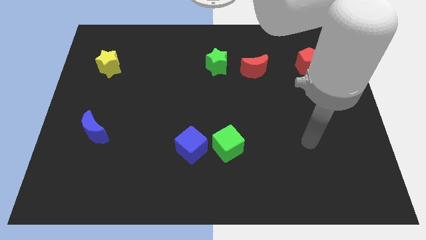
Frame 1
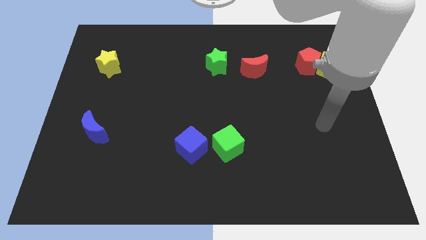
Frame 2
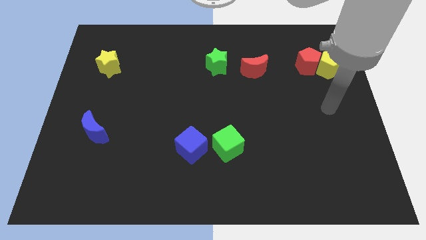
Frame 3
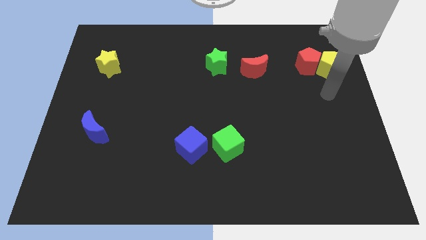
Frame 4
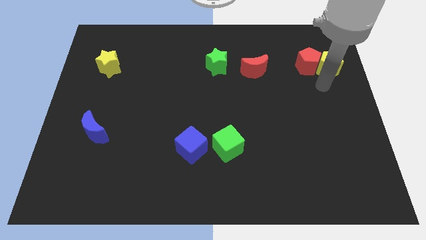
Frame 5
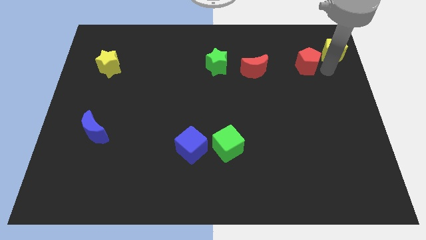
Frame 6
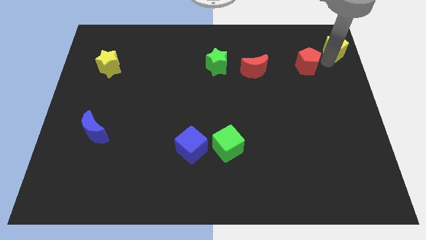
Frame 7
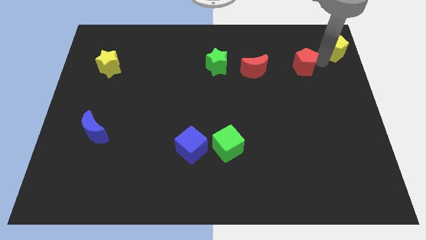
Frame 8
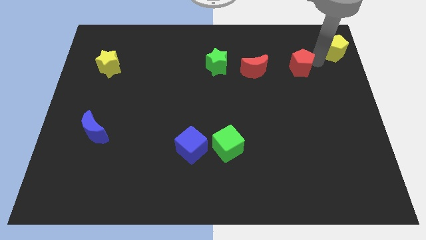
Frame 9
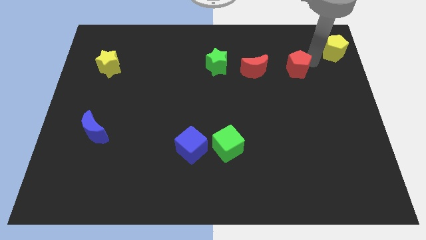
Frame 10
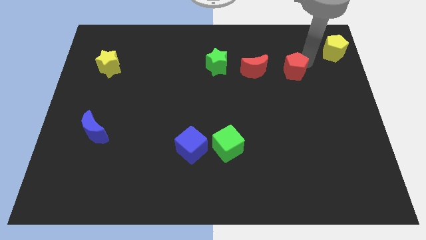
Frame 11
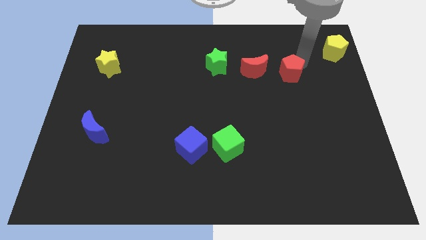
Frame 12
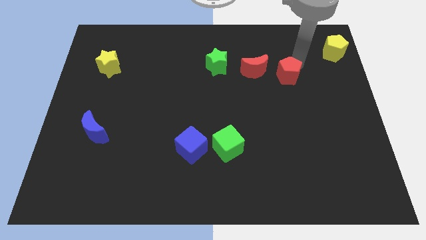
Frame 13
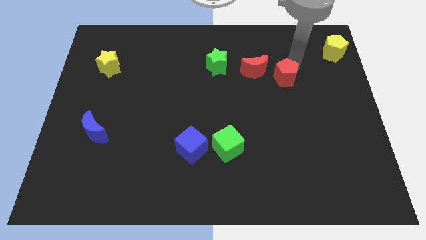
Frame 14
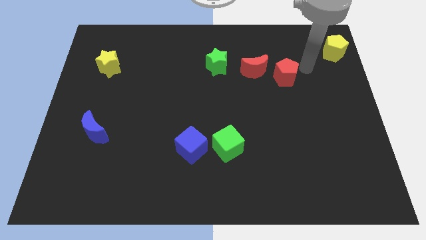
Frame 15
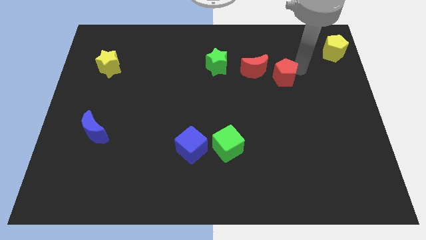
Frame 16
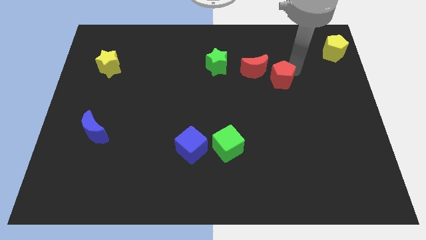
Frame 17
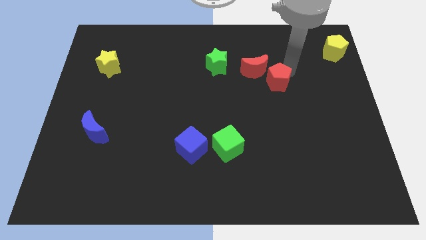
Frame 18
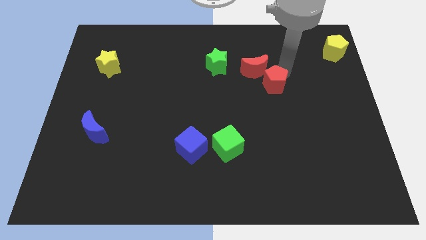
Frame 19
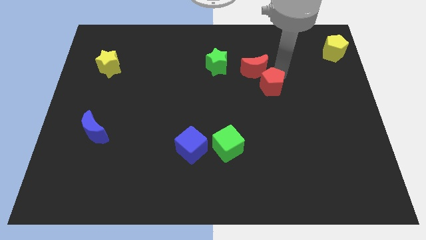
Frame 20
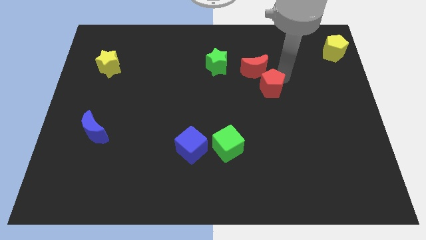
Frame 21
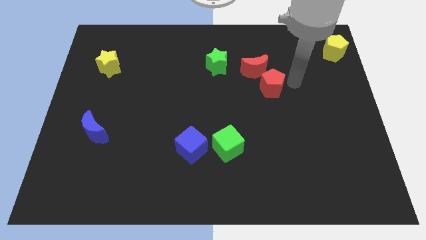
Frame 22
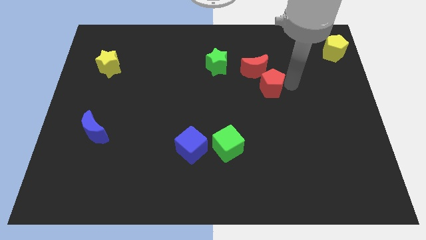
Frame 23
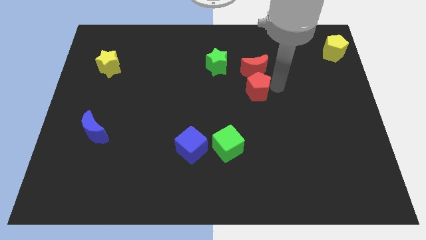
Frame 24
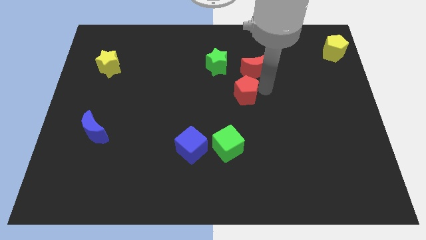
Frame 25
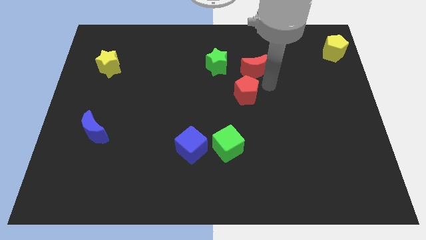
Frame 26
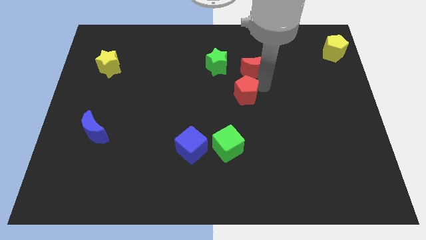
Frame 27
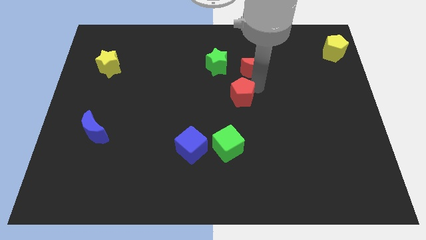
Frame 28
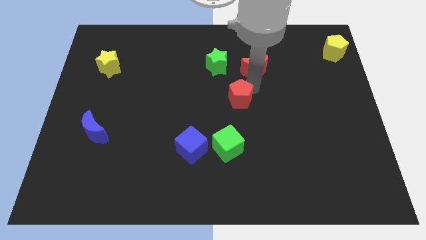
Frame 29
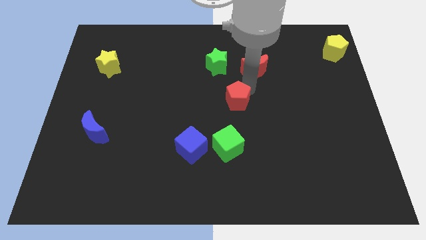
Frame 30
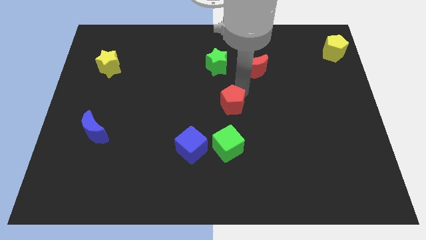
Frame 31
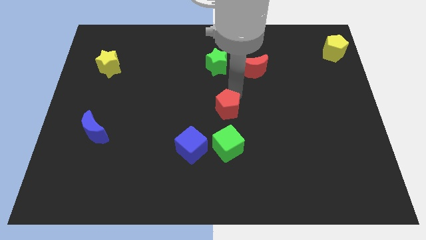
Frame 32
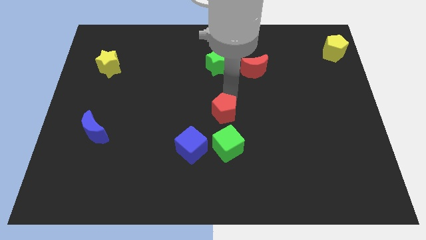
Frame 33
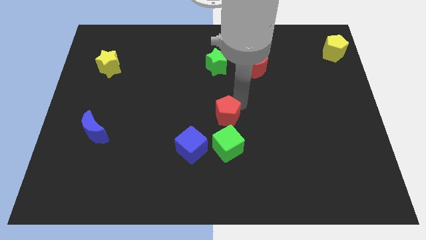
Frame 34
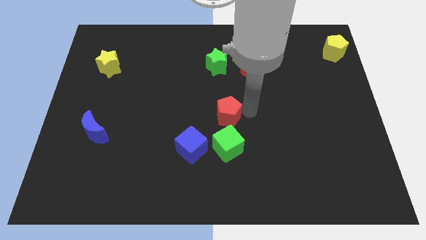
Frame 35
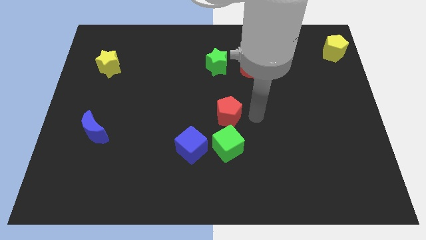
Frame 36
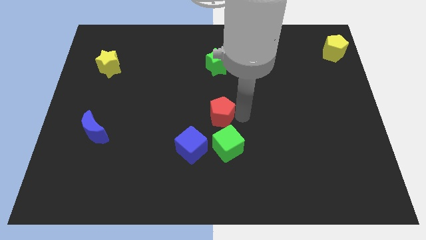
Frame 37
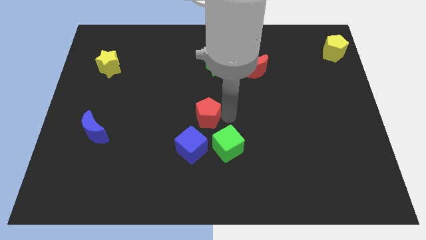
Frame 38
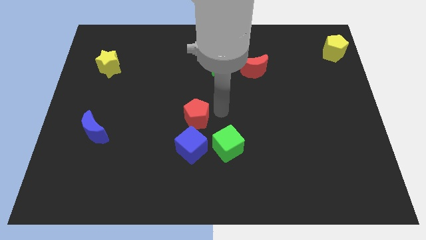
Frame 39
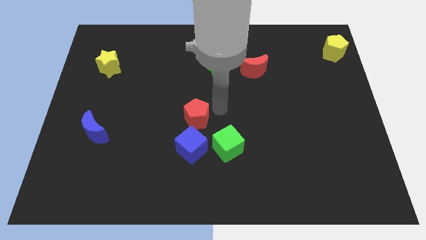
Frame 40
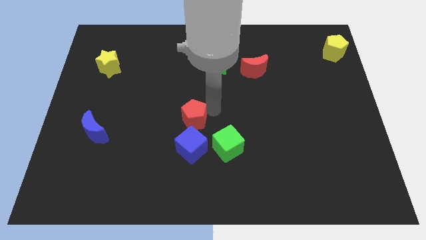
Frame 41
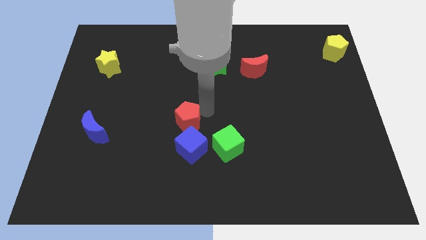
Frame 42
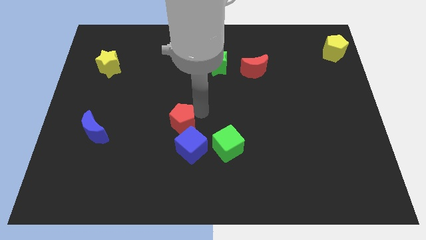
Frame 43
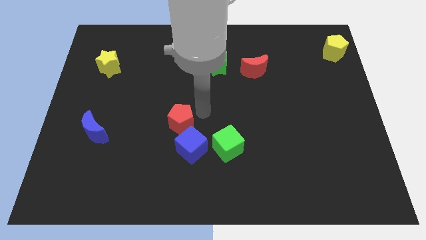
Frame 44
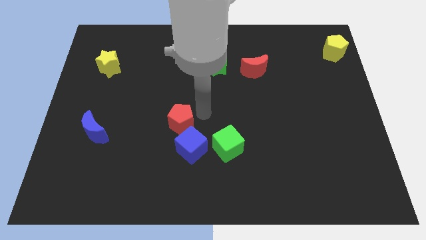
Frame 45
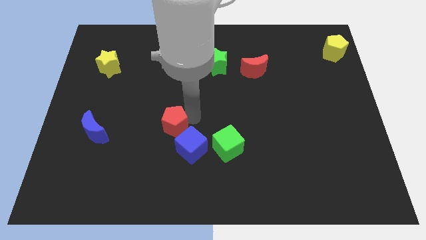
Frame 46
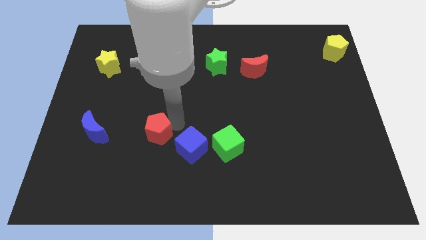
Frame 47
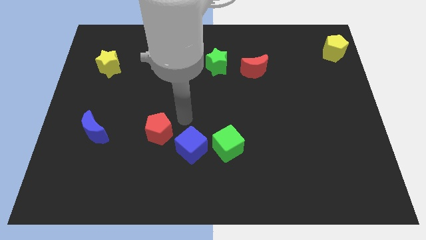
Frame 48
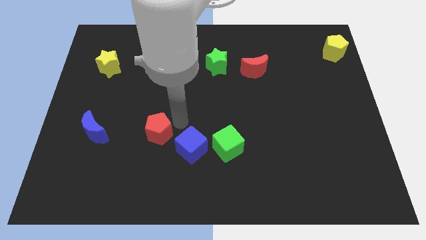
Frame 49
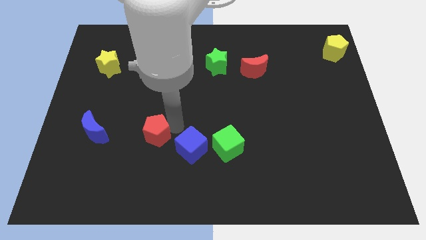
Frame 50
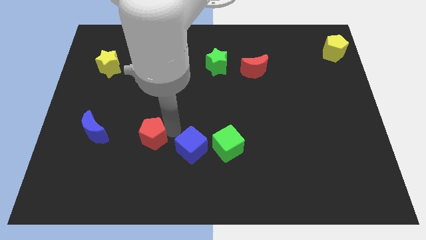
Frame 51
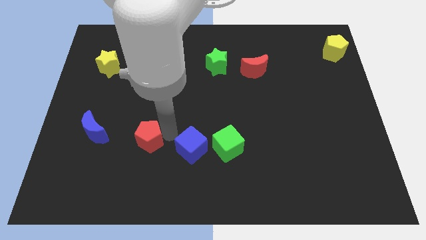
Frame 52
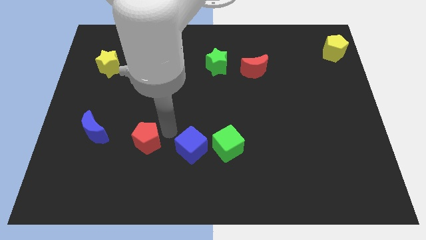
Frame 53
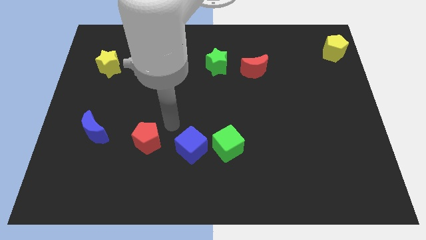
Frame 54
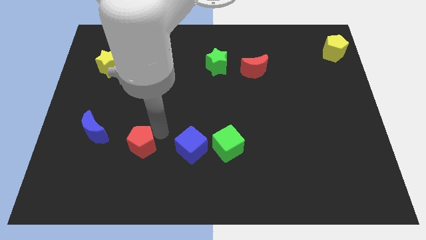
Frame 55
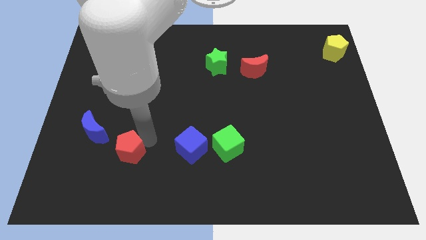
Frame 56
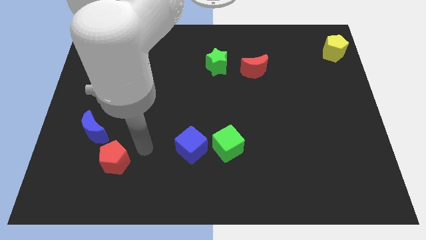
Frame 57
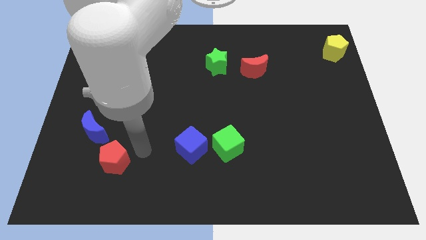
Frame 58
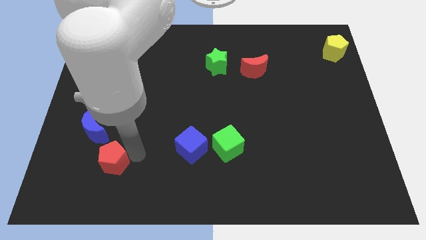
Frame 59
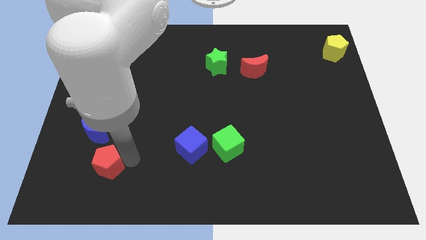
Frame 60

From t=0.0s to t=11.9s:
push the red pentagon to the bottom side of the blue moon

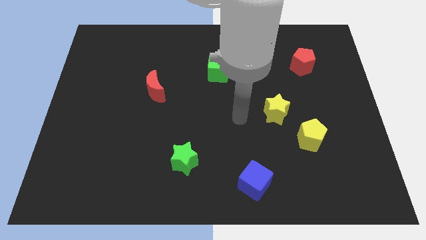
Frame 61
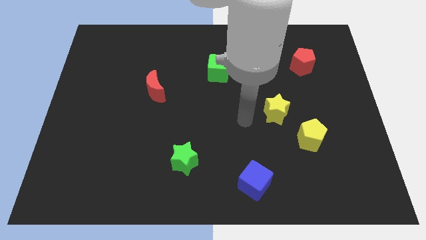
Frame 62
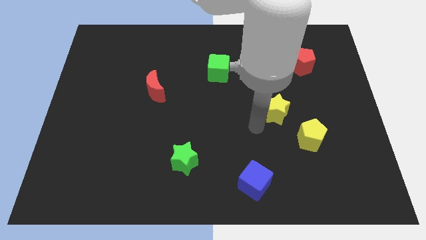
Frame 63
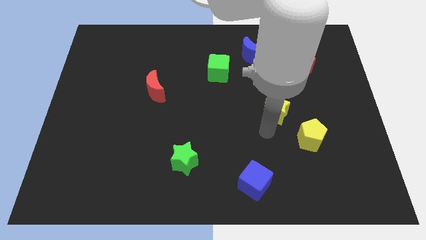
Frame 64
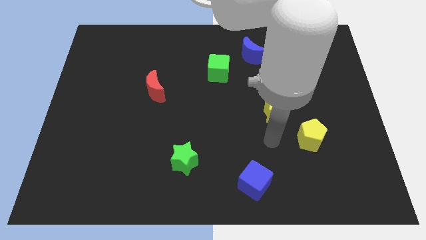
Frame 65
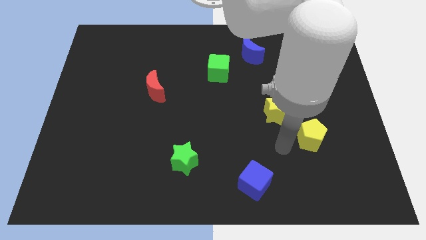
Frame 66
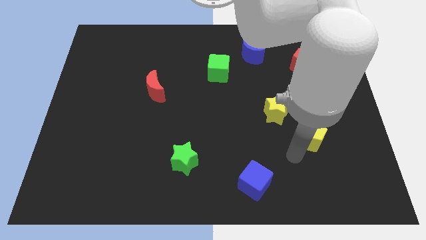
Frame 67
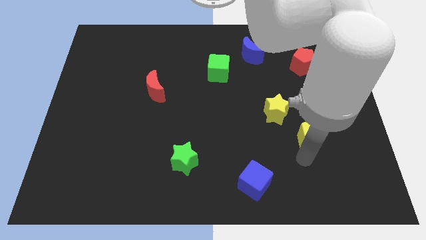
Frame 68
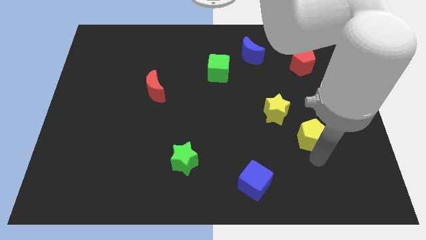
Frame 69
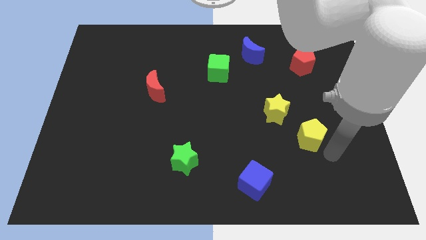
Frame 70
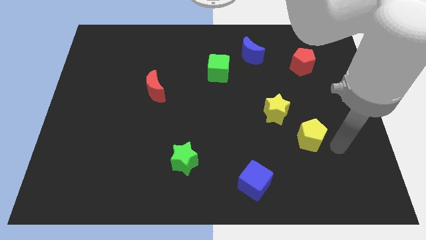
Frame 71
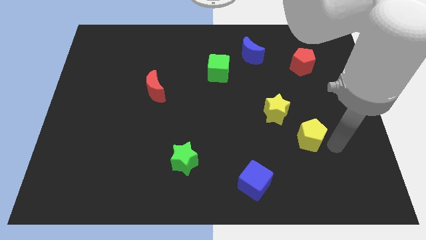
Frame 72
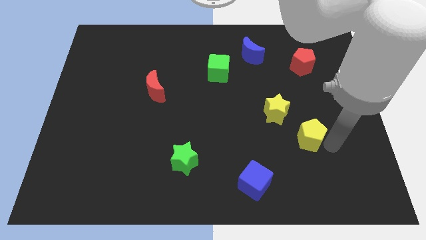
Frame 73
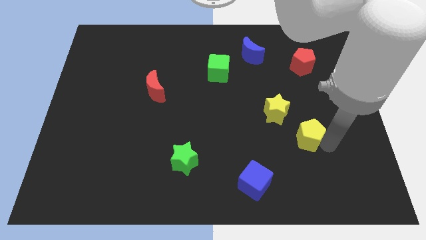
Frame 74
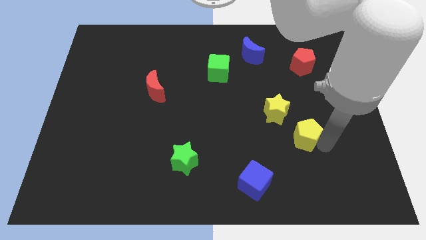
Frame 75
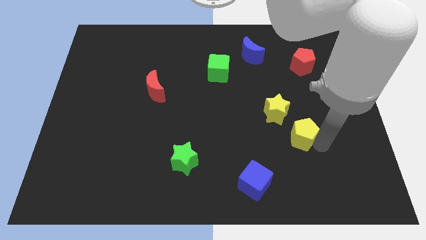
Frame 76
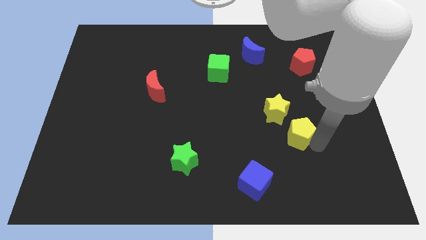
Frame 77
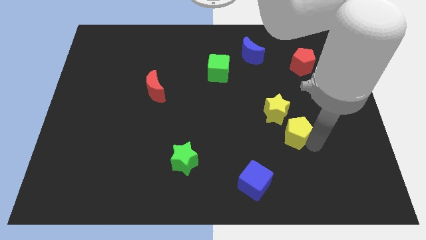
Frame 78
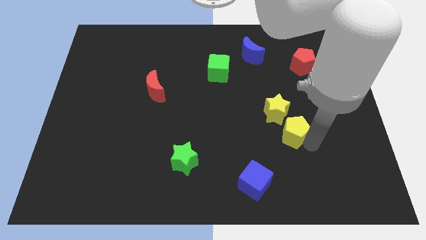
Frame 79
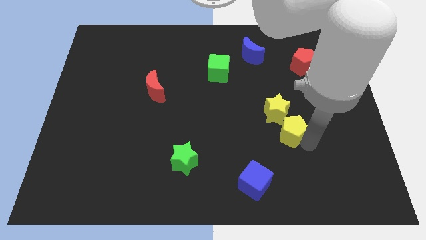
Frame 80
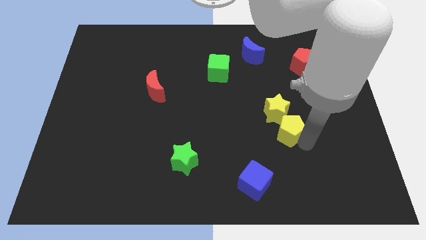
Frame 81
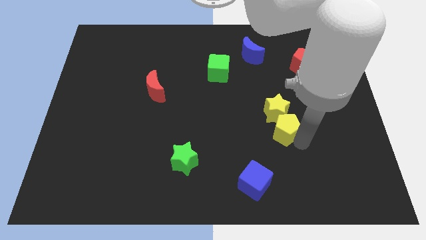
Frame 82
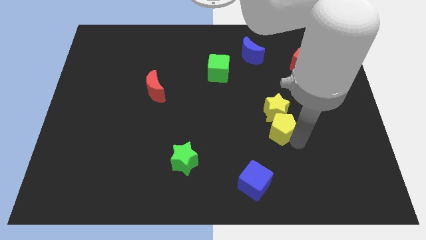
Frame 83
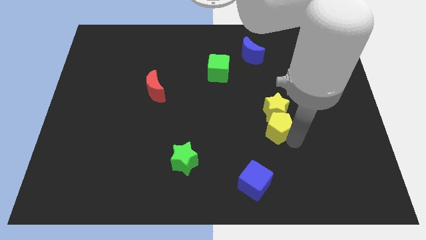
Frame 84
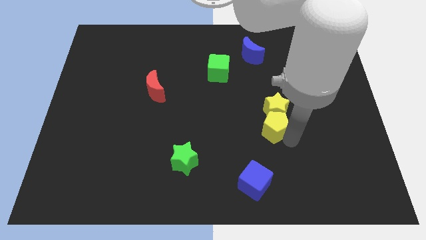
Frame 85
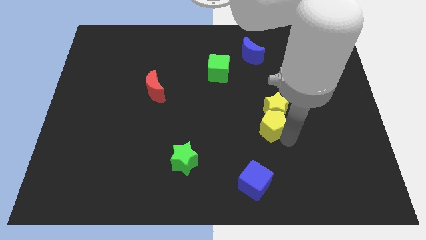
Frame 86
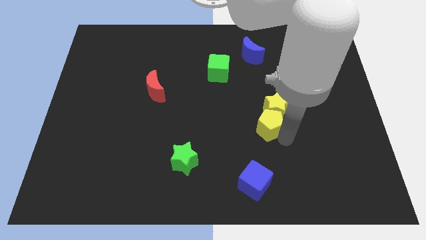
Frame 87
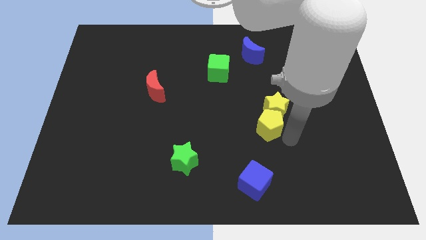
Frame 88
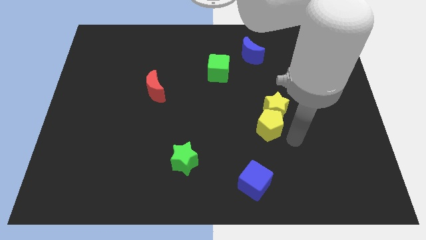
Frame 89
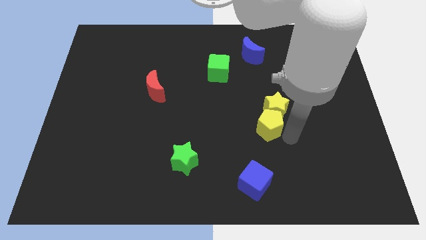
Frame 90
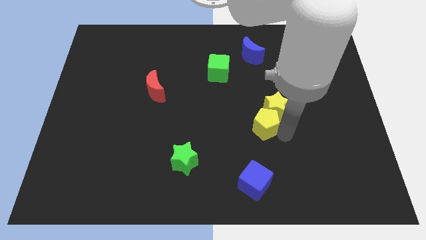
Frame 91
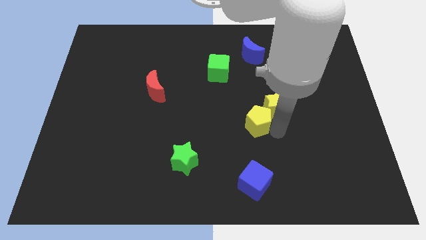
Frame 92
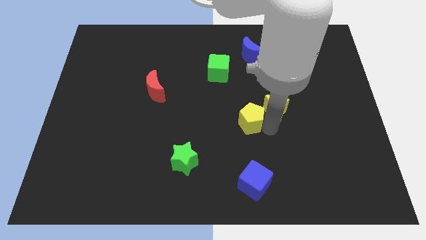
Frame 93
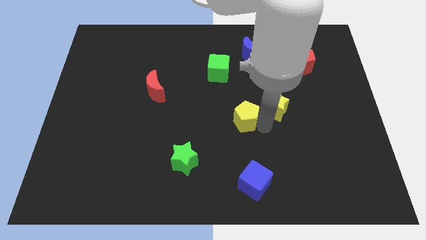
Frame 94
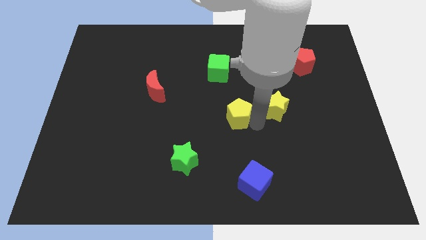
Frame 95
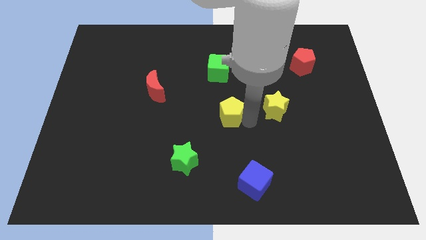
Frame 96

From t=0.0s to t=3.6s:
move the yellow pentagon to the bottom side of the green cube
